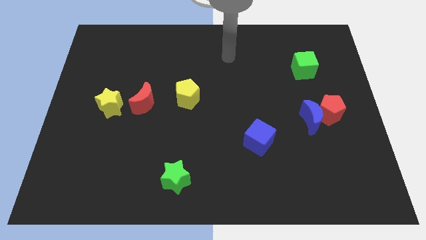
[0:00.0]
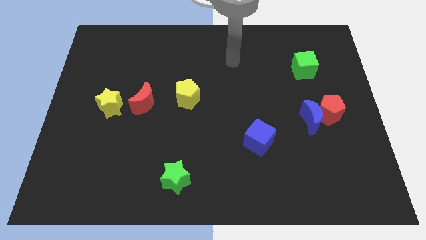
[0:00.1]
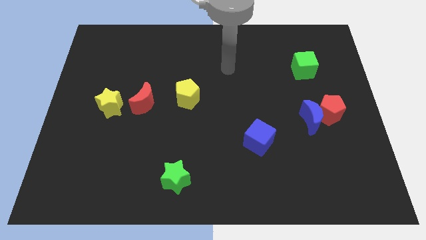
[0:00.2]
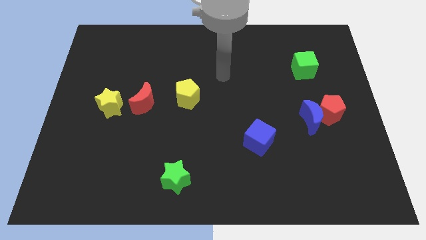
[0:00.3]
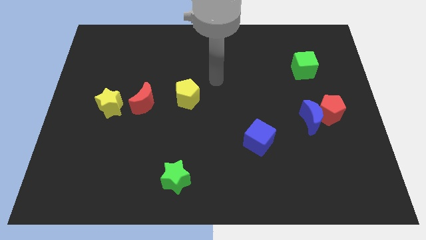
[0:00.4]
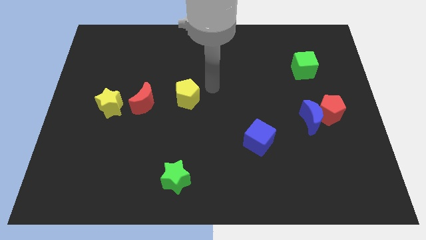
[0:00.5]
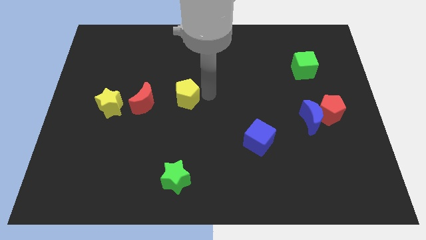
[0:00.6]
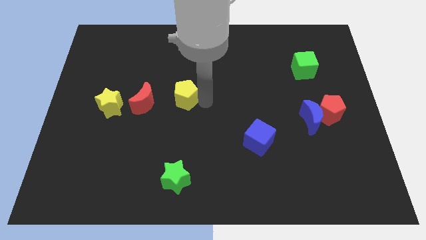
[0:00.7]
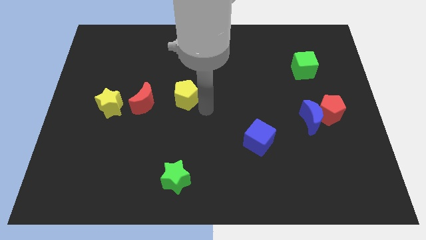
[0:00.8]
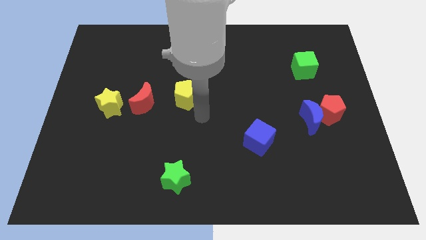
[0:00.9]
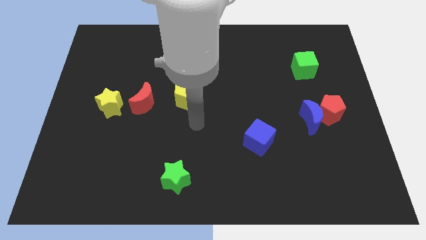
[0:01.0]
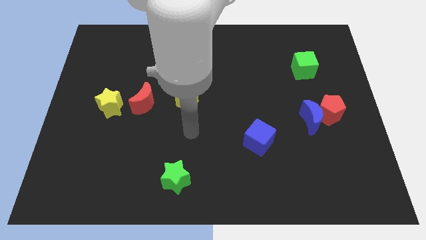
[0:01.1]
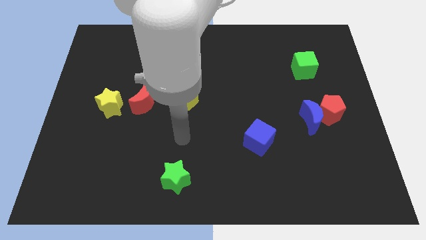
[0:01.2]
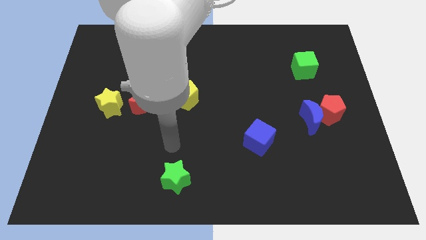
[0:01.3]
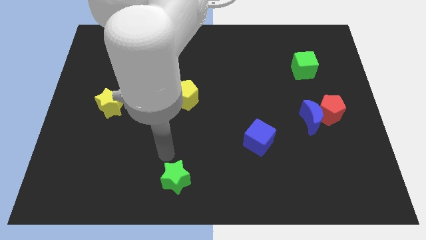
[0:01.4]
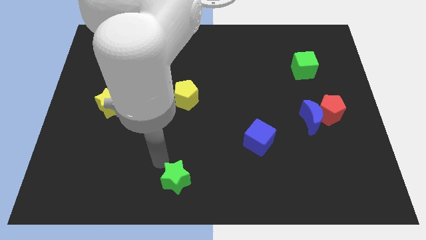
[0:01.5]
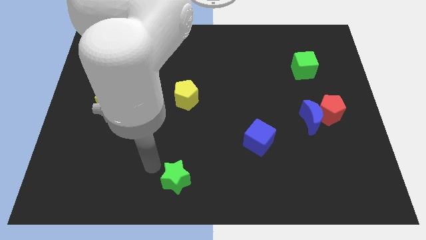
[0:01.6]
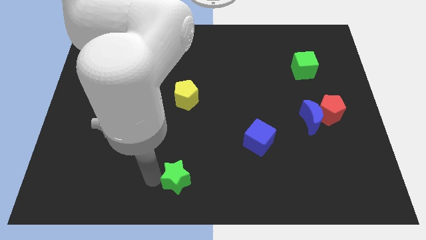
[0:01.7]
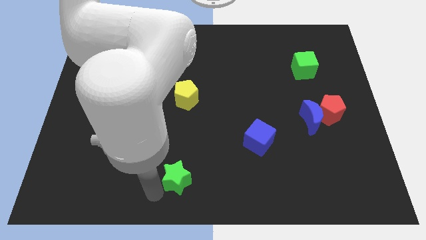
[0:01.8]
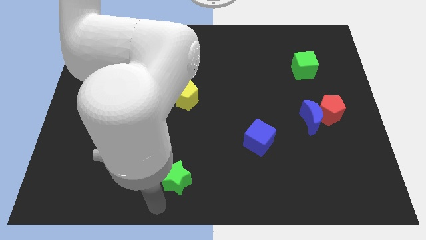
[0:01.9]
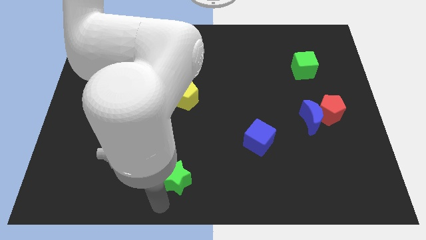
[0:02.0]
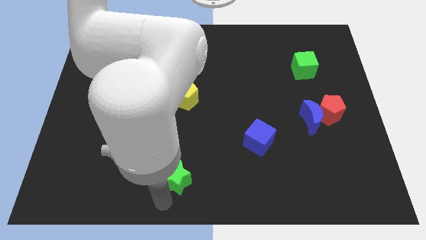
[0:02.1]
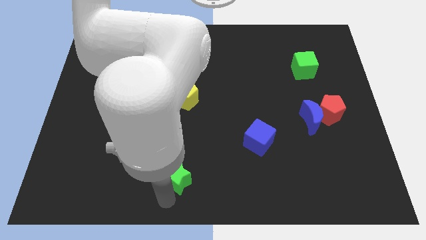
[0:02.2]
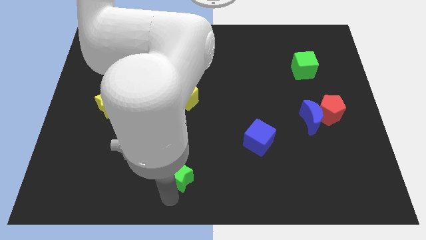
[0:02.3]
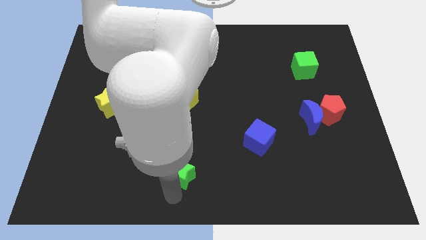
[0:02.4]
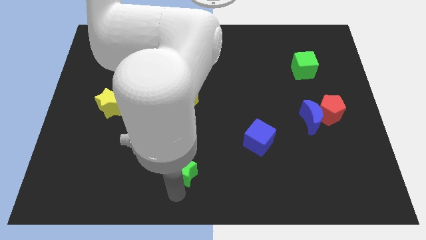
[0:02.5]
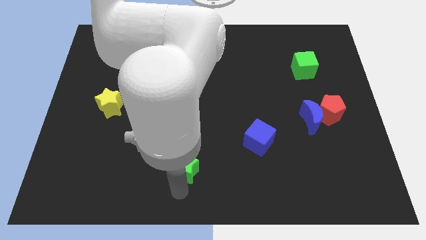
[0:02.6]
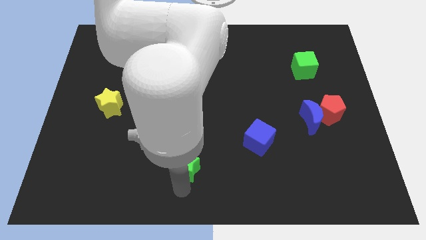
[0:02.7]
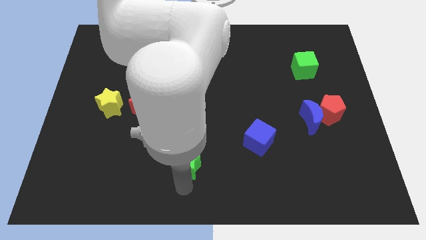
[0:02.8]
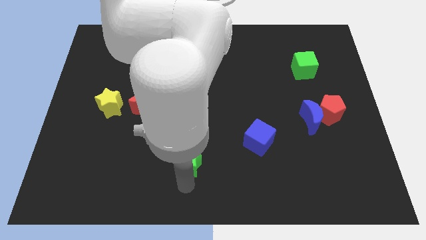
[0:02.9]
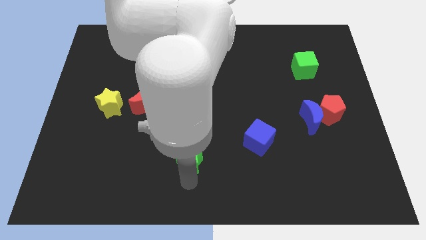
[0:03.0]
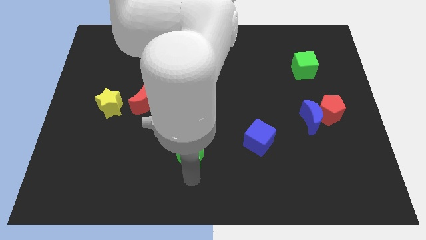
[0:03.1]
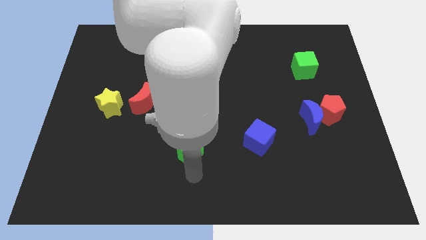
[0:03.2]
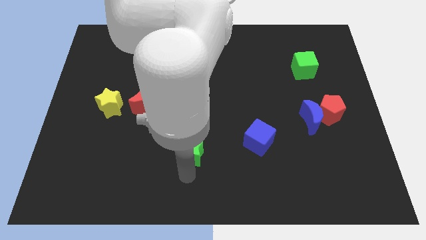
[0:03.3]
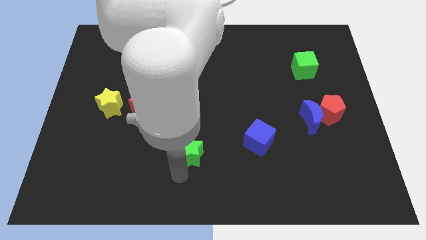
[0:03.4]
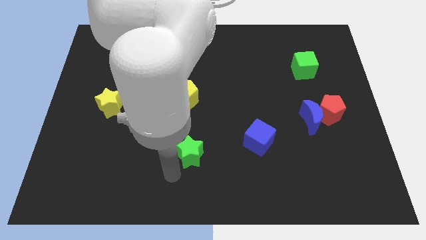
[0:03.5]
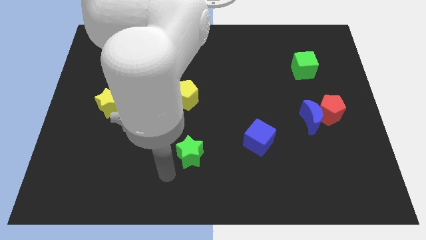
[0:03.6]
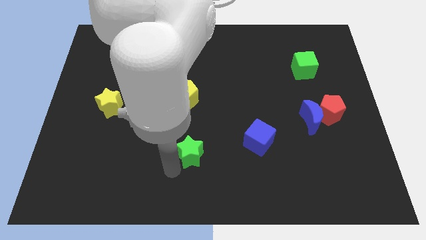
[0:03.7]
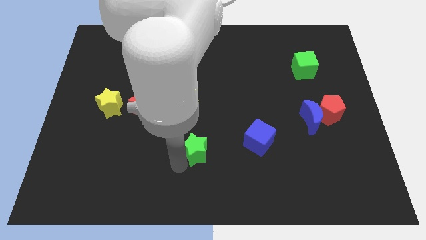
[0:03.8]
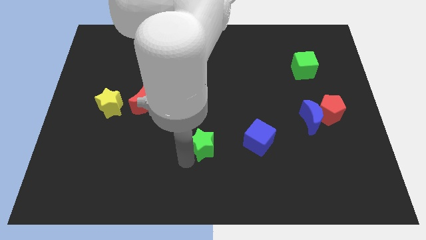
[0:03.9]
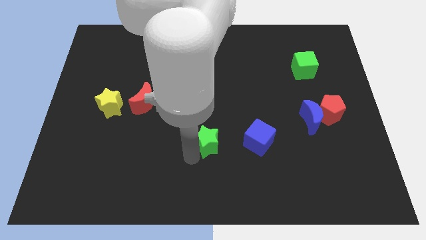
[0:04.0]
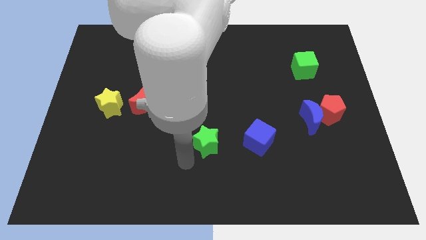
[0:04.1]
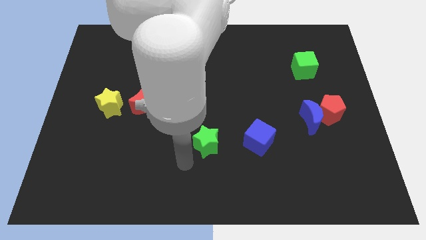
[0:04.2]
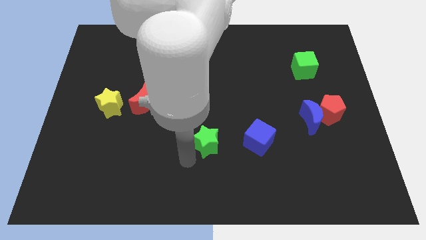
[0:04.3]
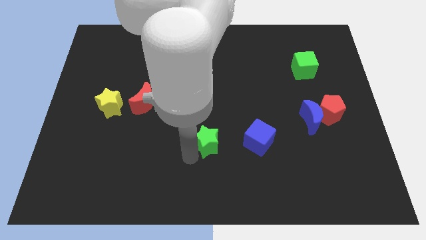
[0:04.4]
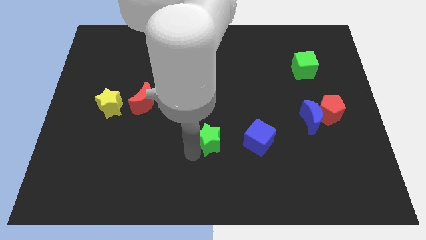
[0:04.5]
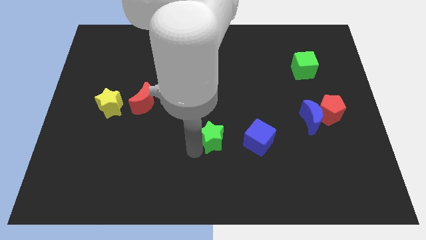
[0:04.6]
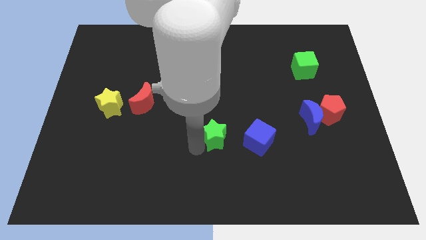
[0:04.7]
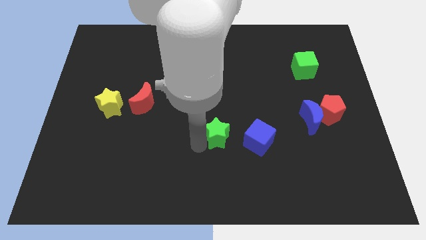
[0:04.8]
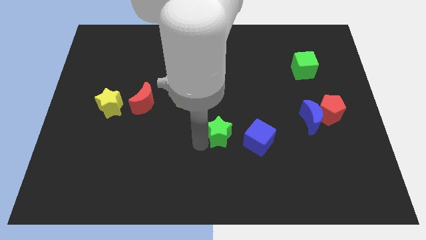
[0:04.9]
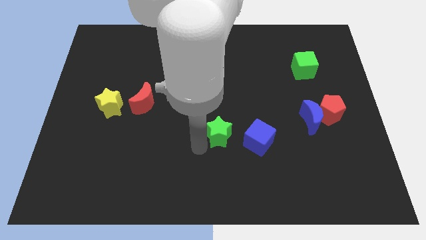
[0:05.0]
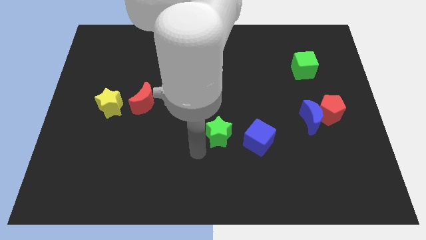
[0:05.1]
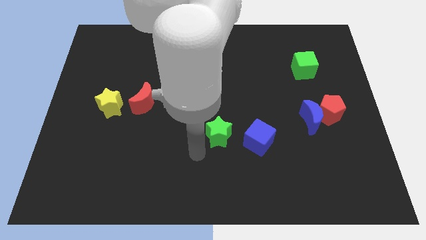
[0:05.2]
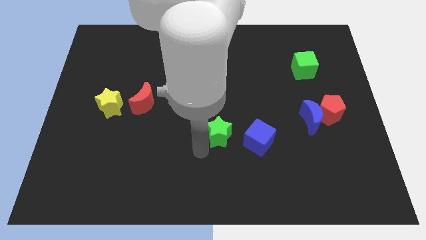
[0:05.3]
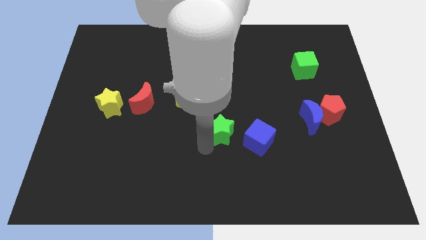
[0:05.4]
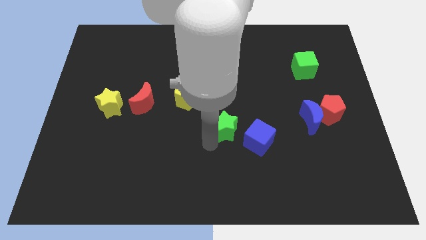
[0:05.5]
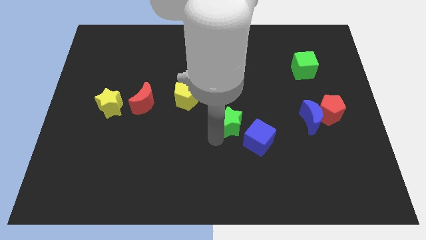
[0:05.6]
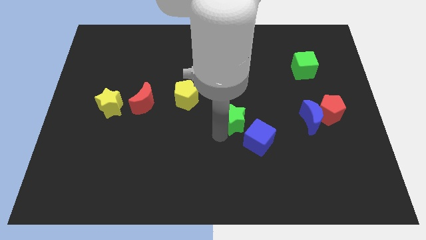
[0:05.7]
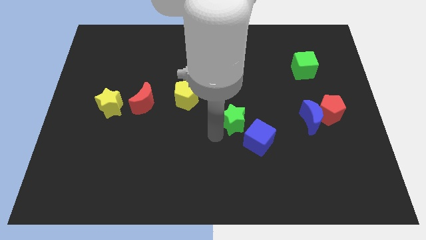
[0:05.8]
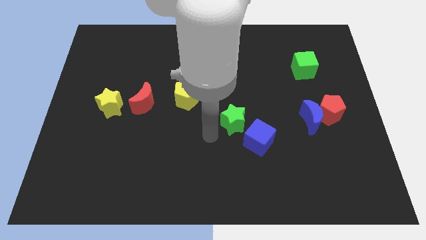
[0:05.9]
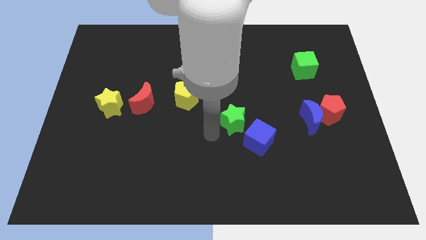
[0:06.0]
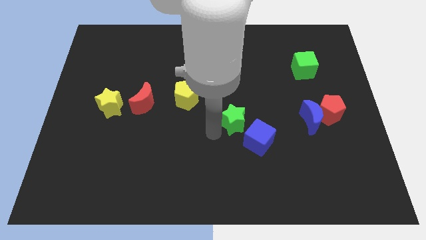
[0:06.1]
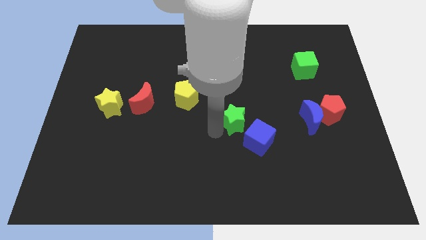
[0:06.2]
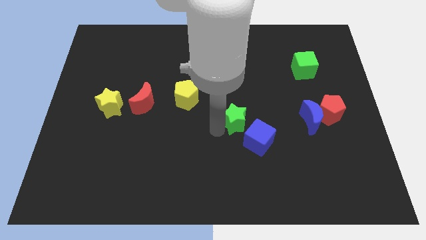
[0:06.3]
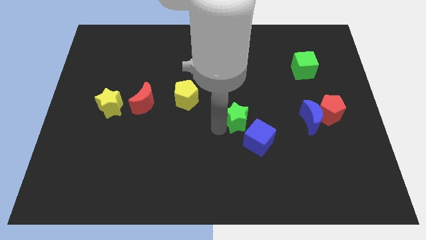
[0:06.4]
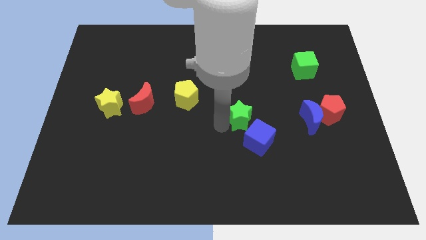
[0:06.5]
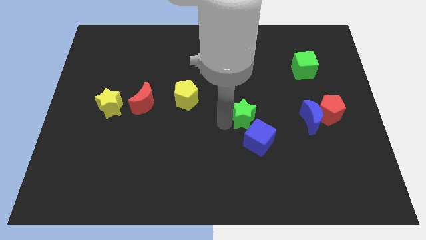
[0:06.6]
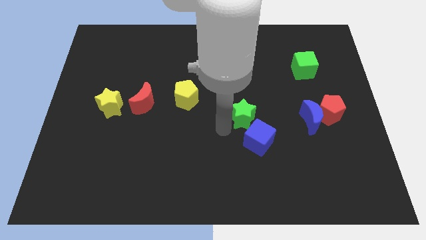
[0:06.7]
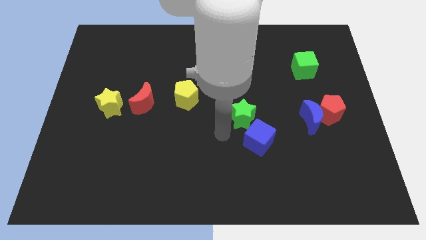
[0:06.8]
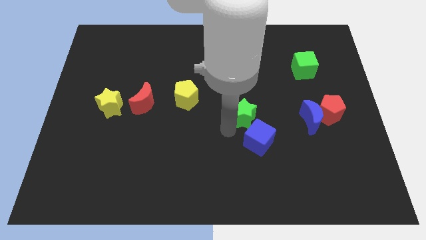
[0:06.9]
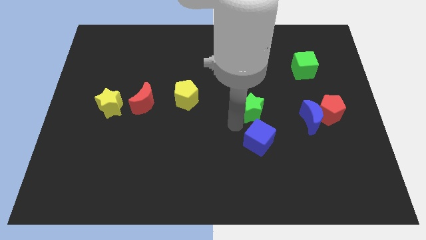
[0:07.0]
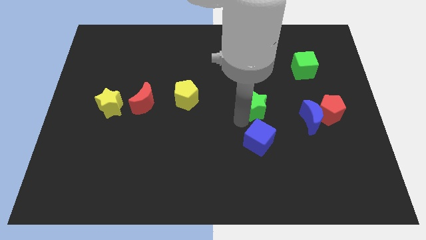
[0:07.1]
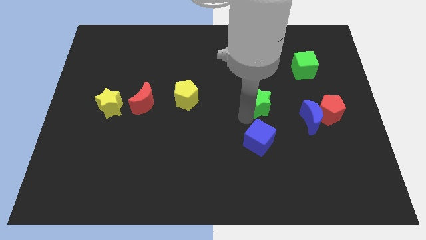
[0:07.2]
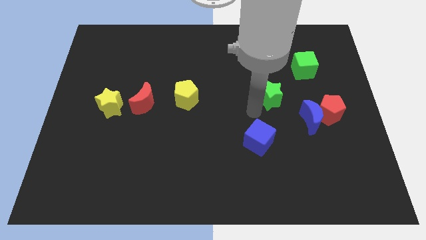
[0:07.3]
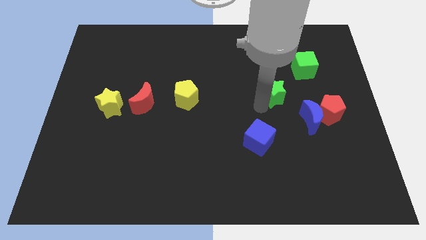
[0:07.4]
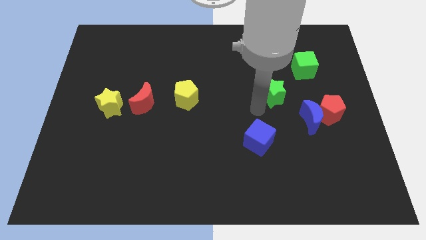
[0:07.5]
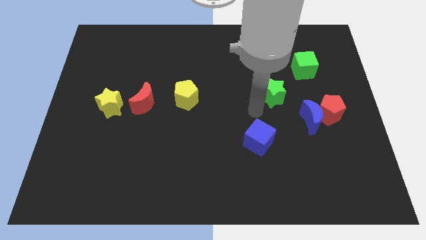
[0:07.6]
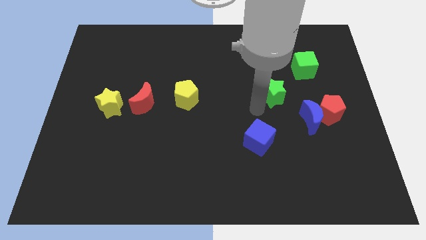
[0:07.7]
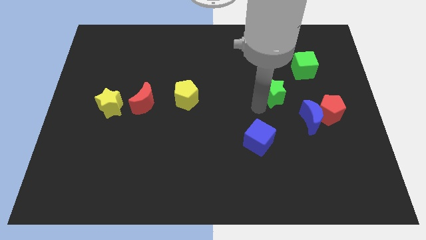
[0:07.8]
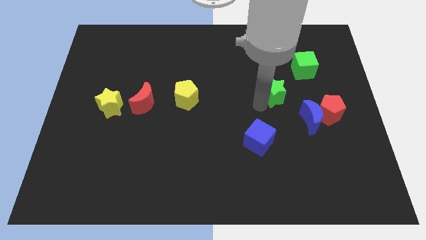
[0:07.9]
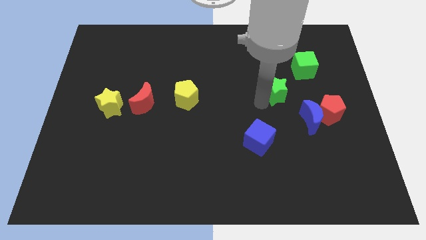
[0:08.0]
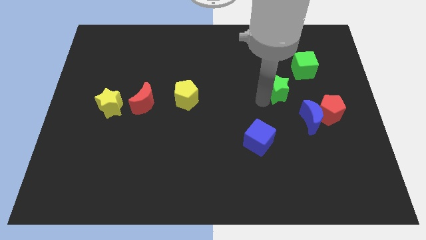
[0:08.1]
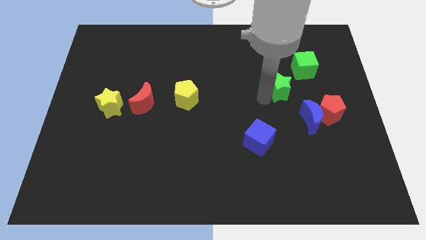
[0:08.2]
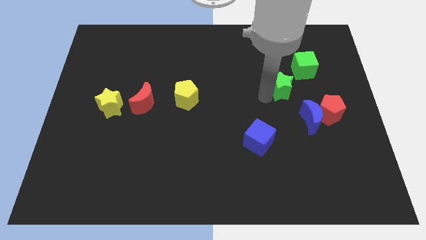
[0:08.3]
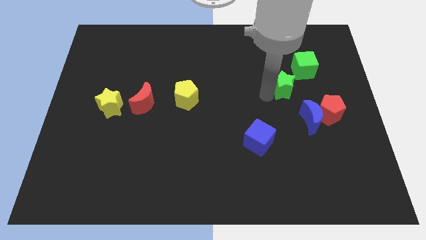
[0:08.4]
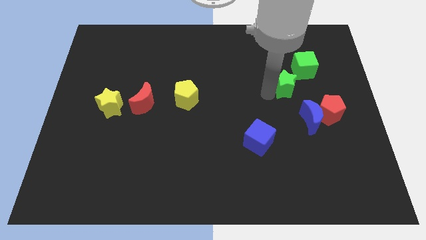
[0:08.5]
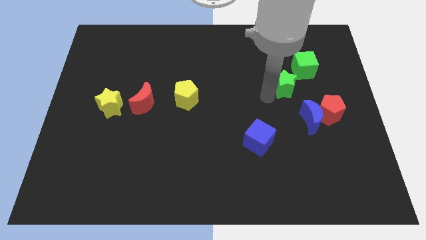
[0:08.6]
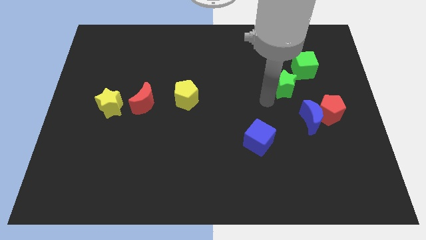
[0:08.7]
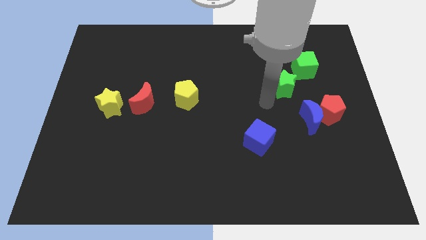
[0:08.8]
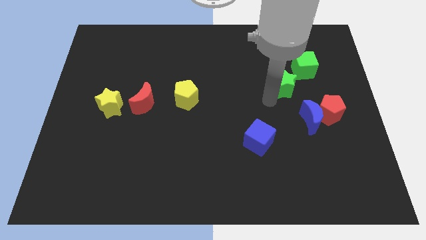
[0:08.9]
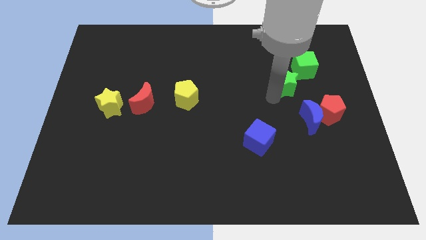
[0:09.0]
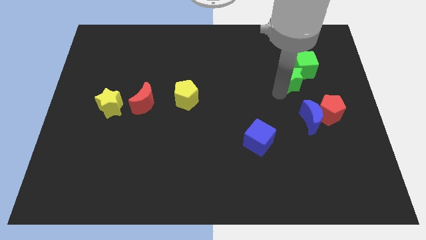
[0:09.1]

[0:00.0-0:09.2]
push the green star next to the green cube
